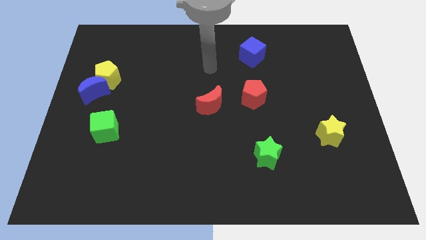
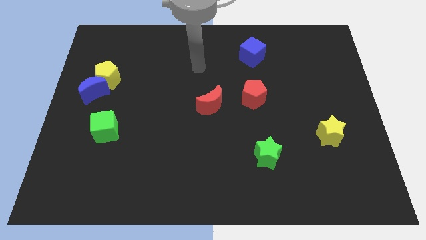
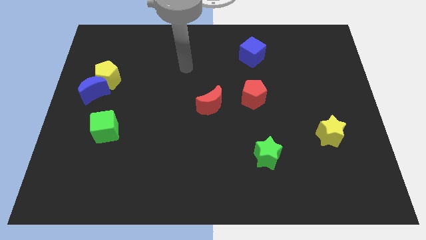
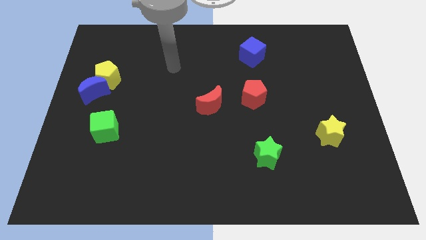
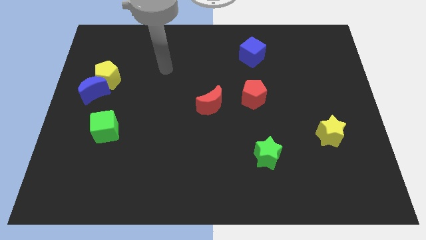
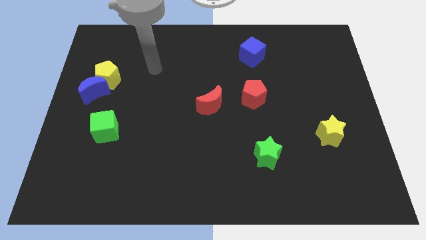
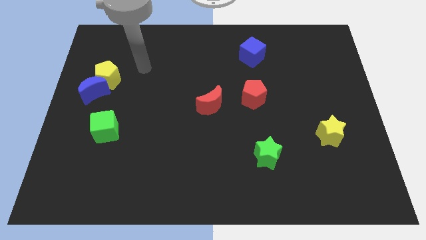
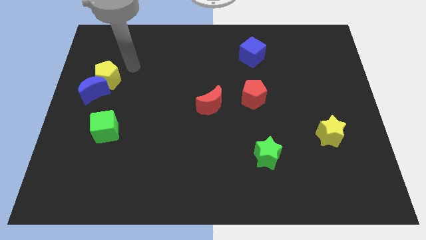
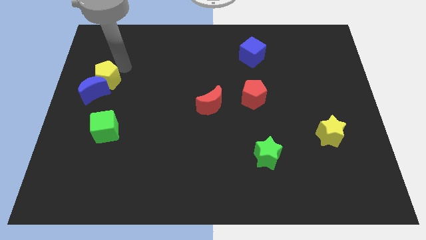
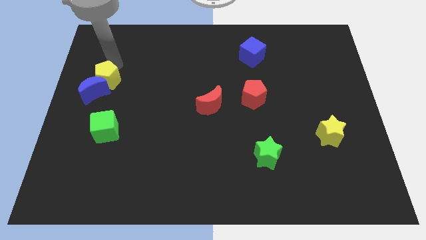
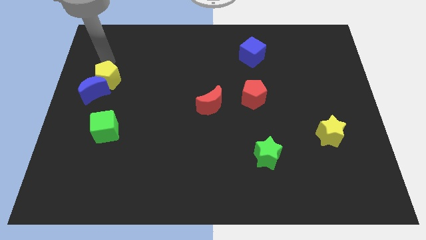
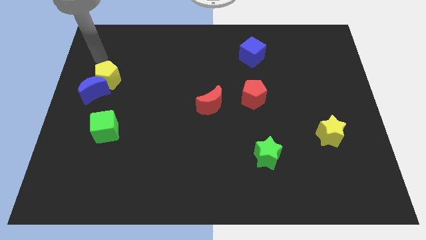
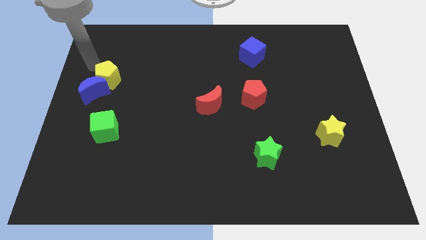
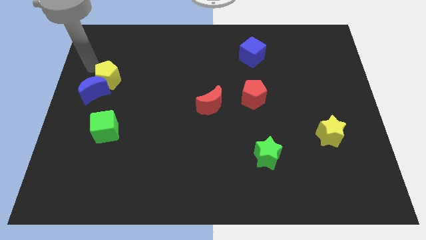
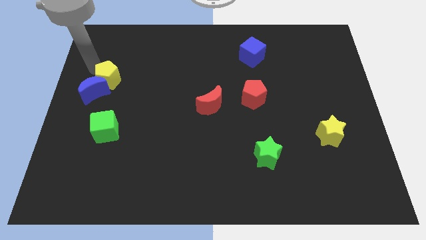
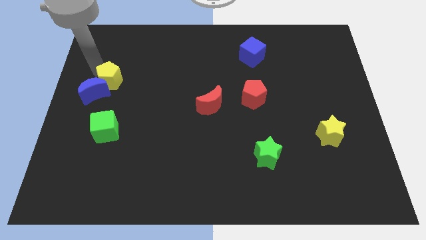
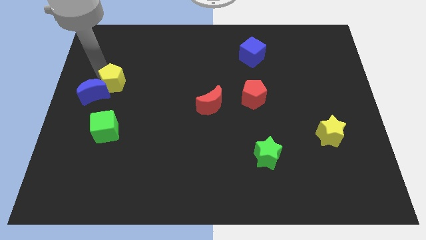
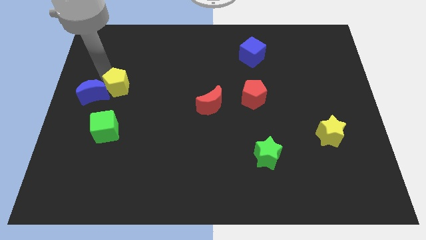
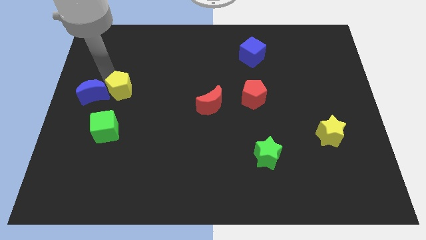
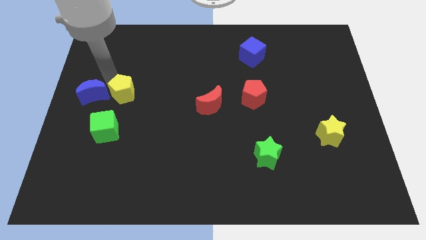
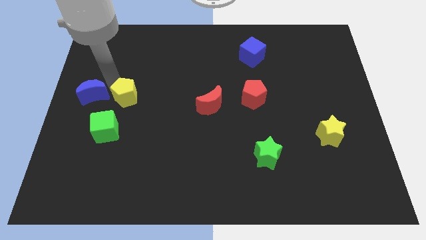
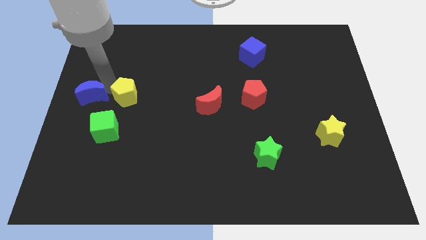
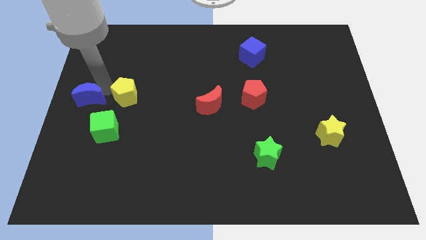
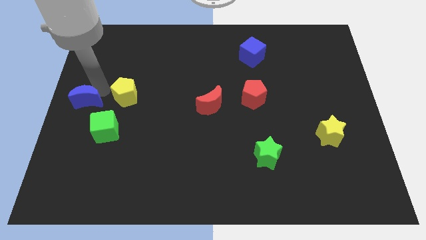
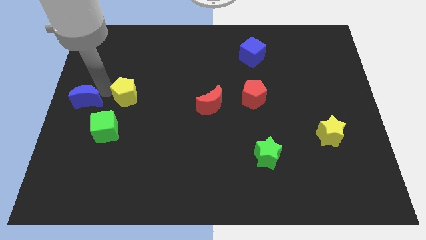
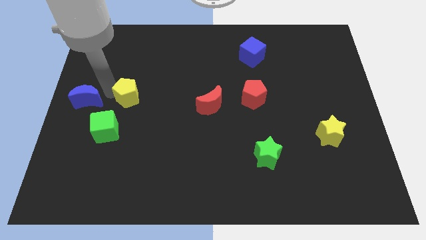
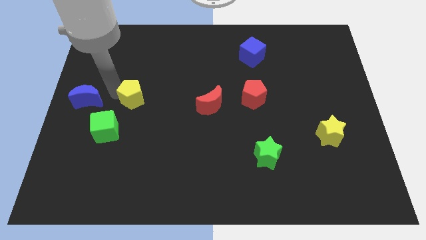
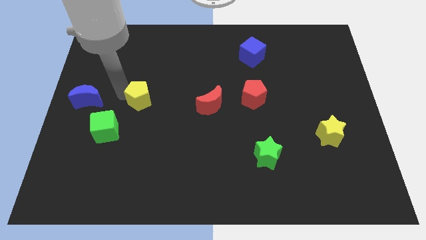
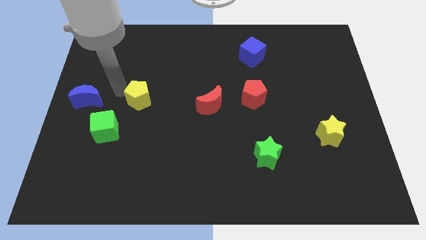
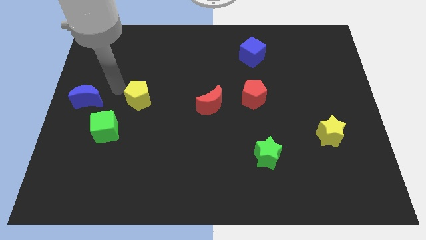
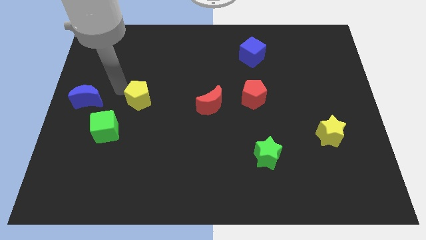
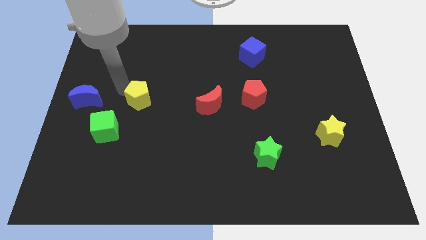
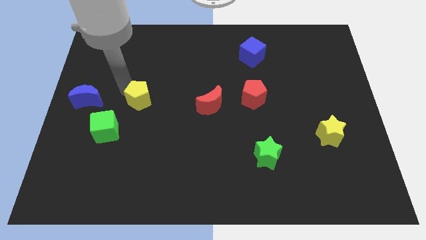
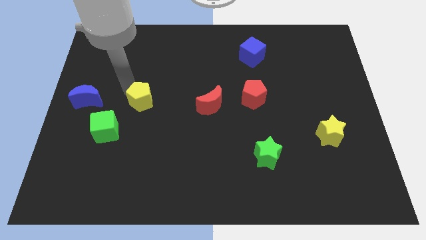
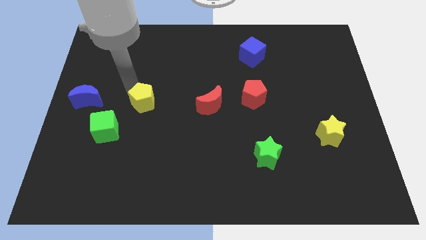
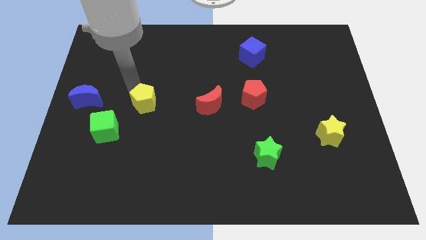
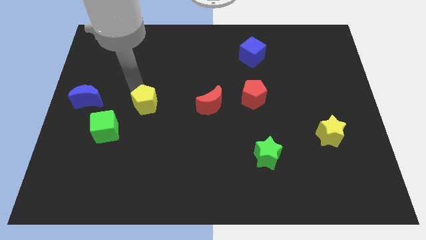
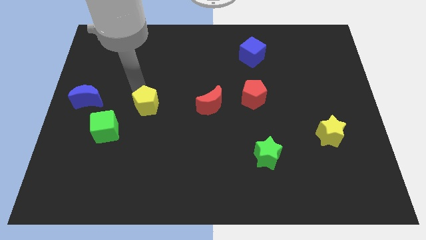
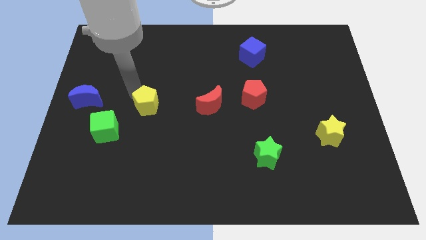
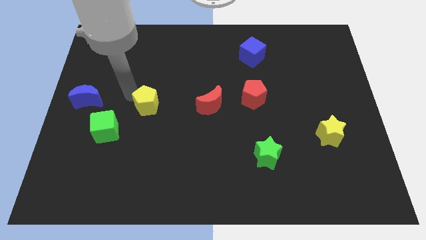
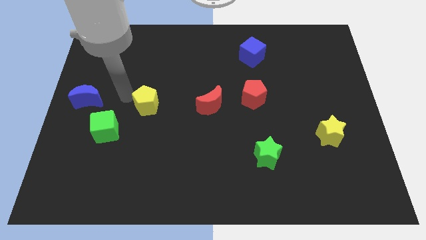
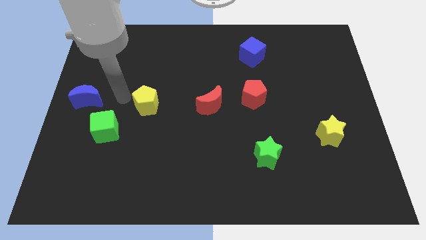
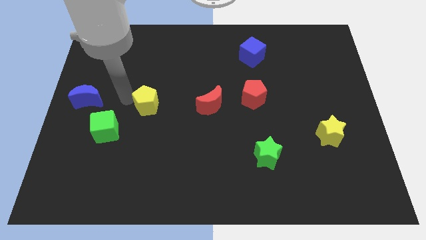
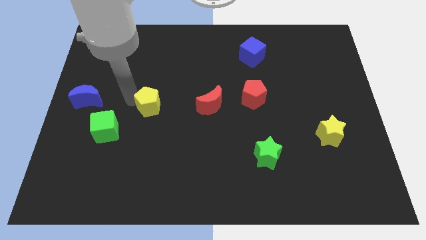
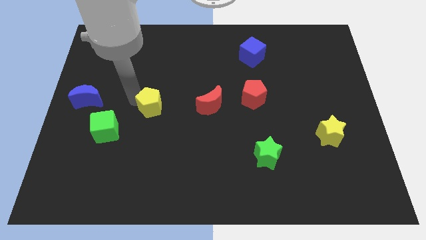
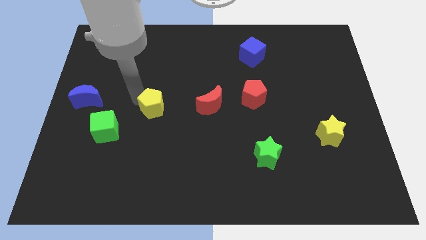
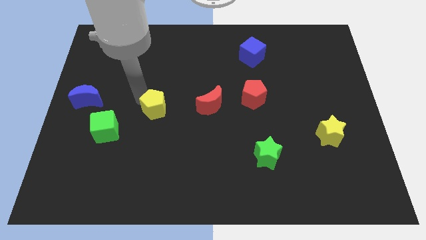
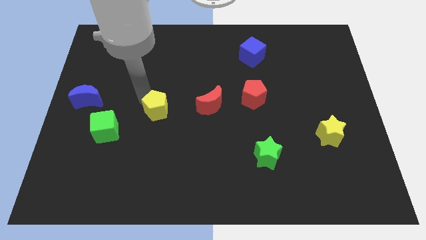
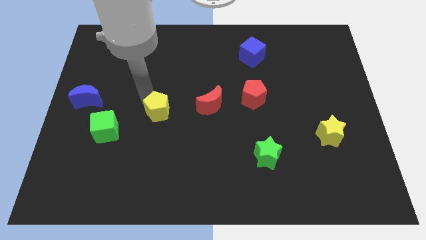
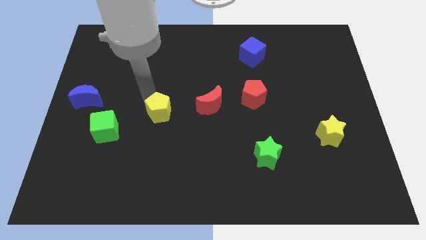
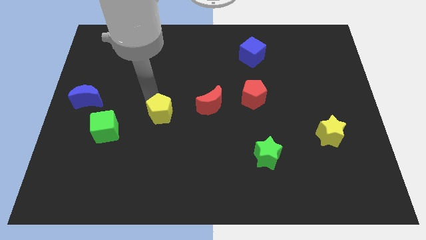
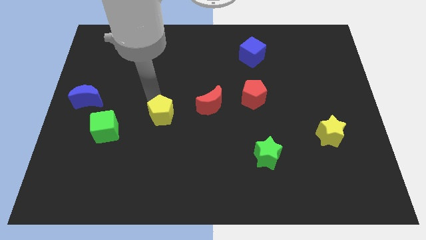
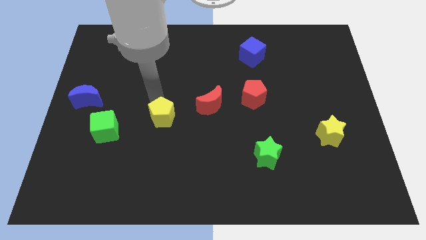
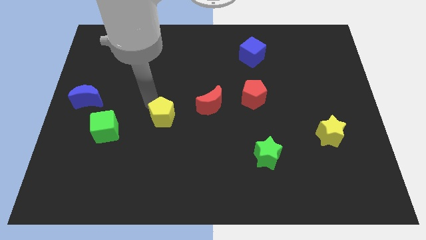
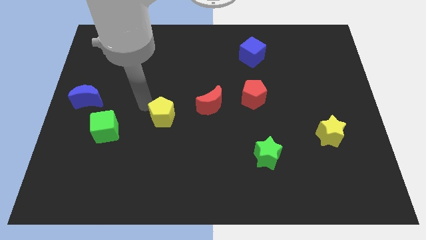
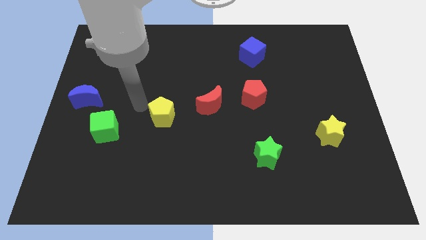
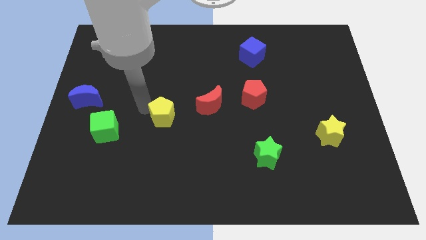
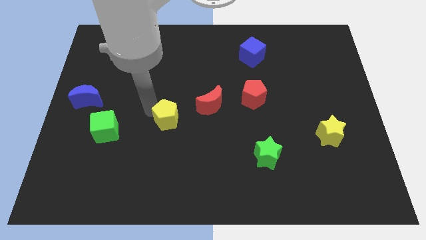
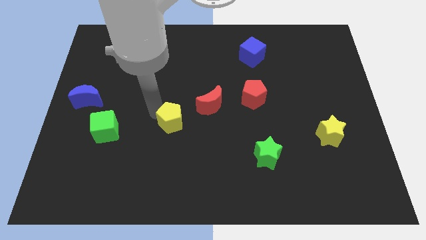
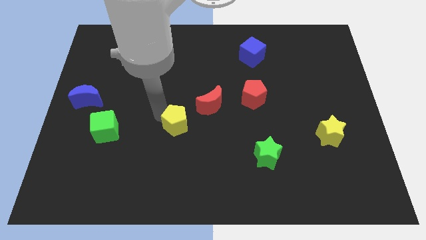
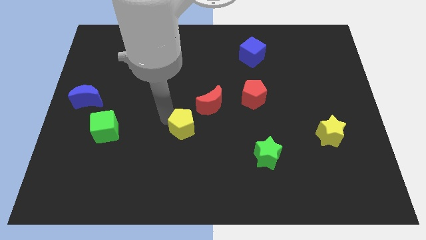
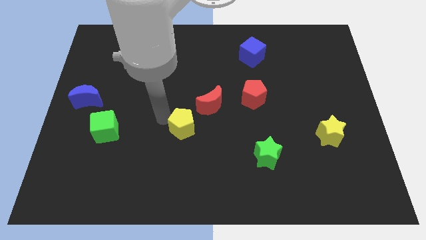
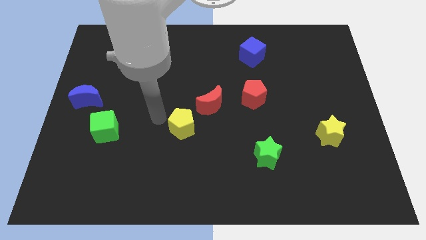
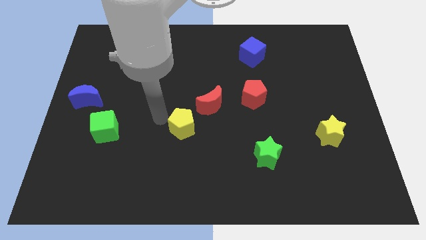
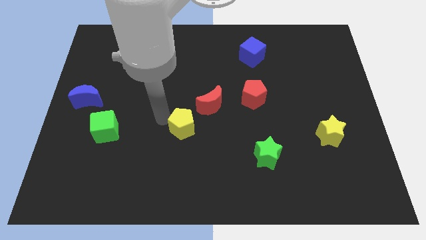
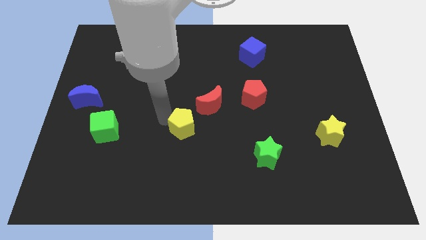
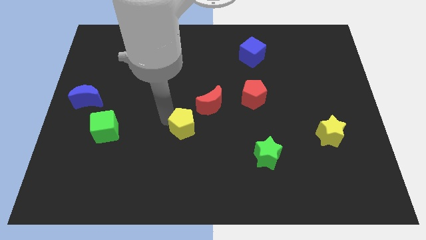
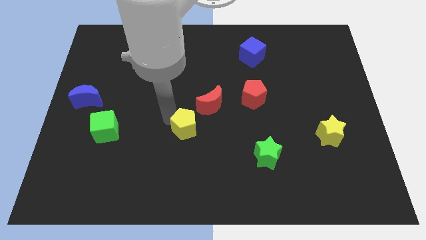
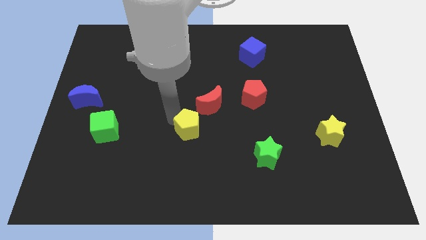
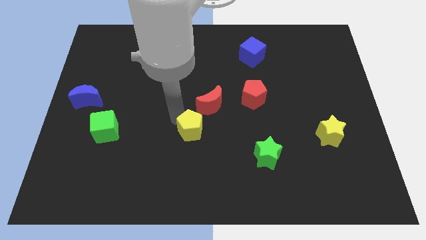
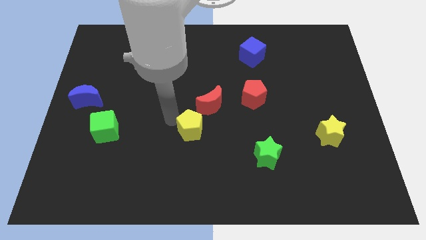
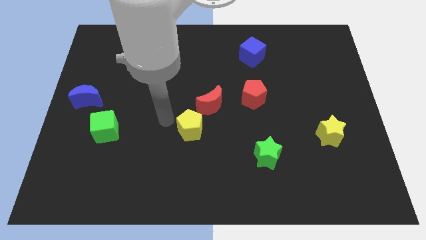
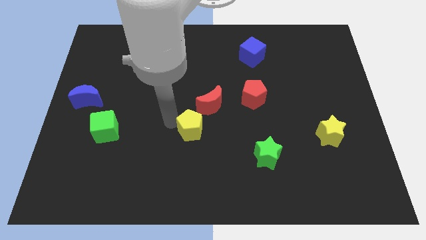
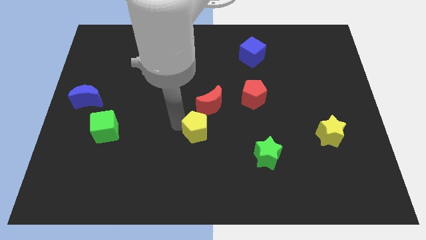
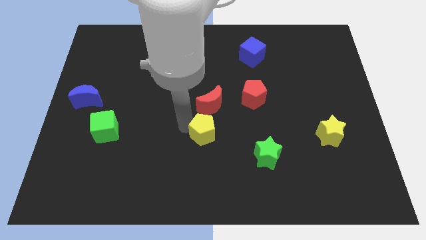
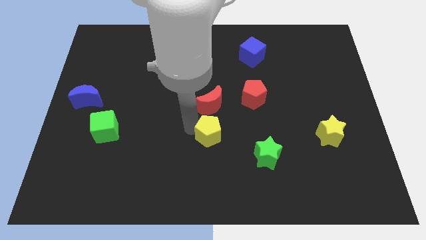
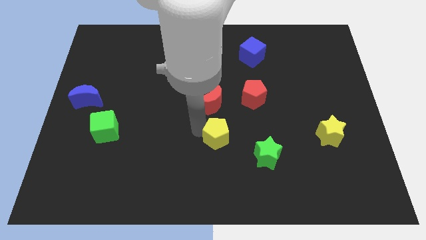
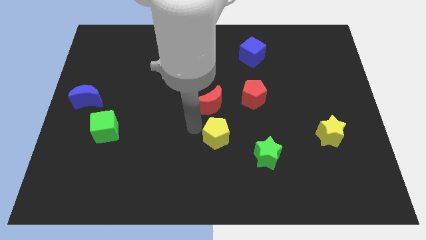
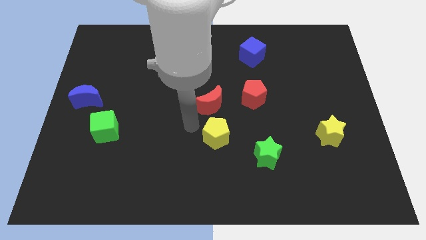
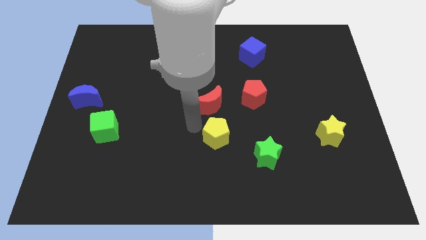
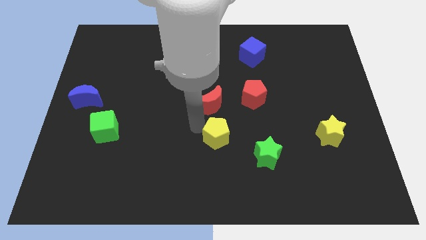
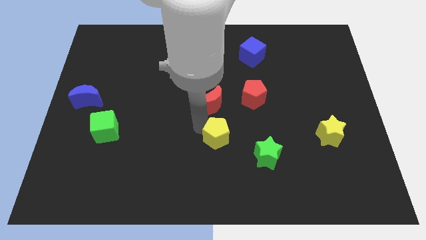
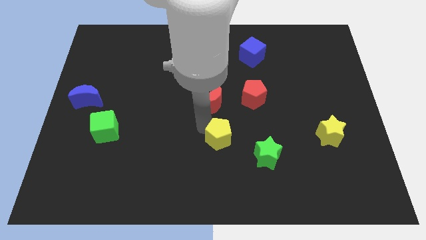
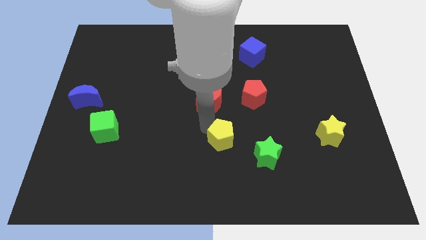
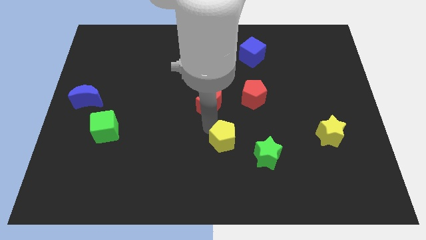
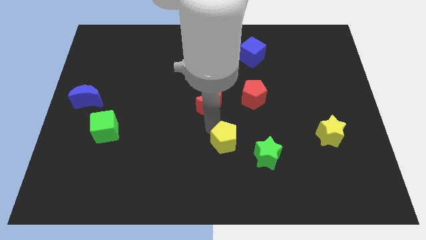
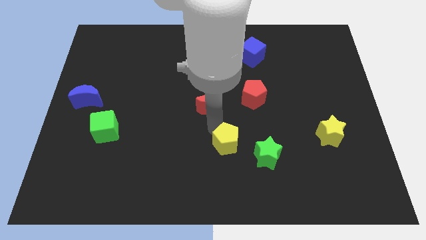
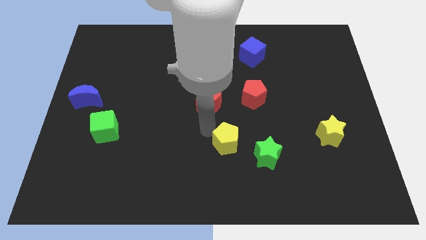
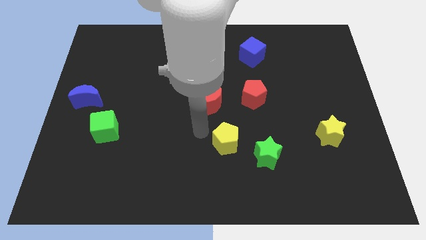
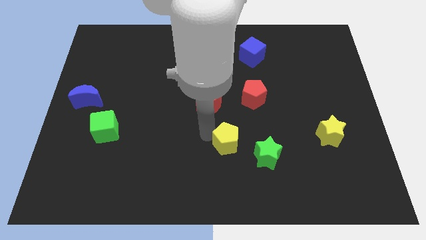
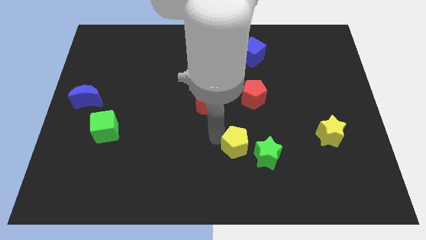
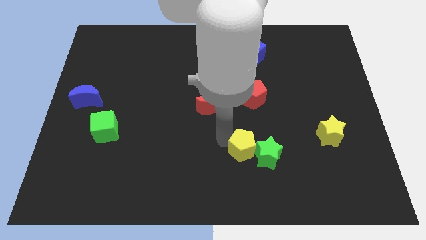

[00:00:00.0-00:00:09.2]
move the yellow pentagon next to the green star
